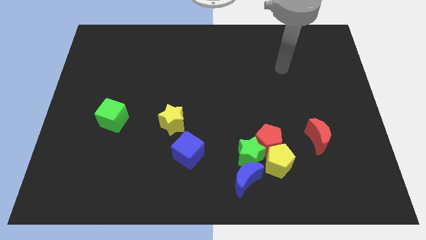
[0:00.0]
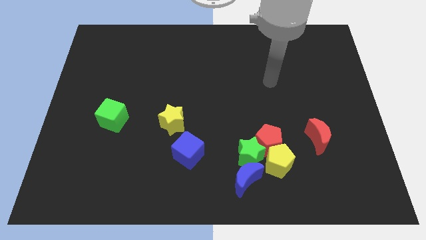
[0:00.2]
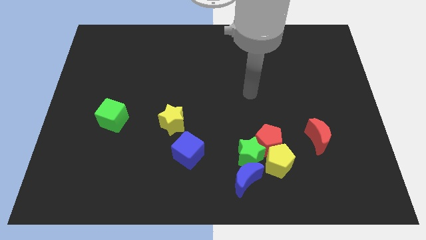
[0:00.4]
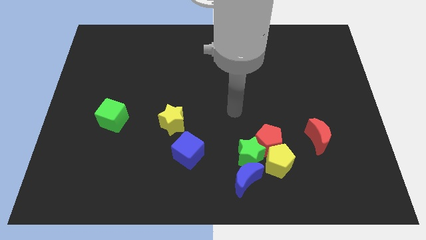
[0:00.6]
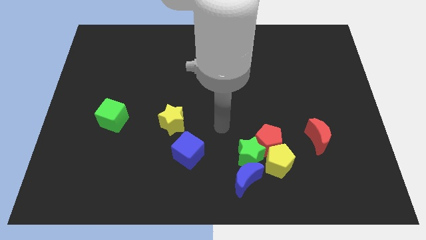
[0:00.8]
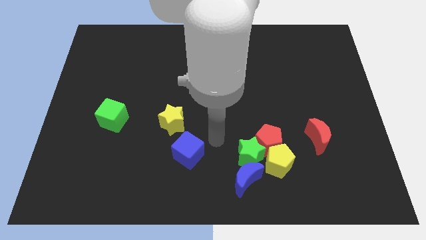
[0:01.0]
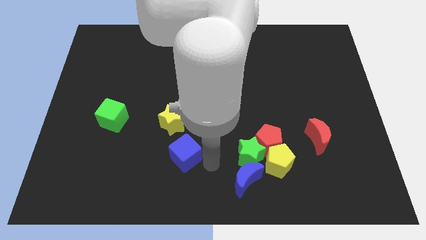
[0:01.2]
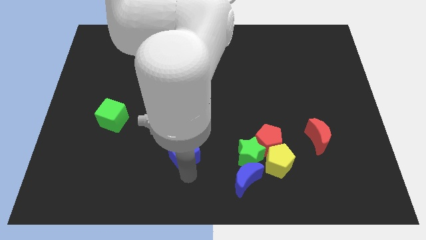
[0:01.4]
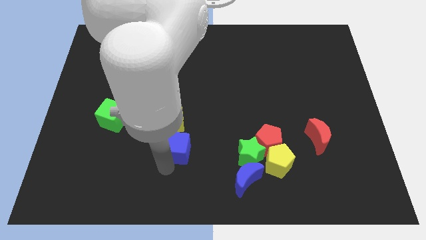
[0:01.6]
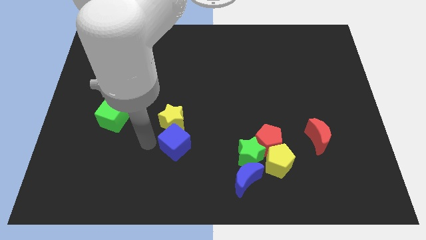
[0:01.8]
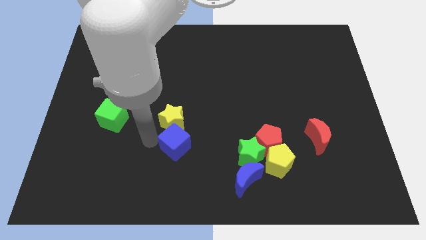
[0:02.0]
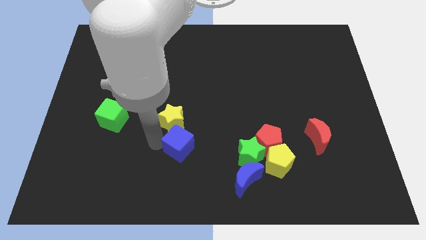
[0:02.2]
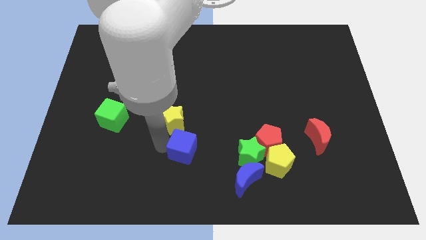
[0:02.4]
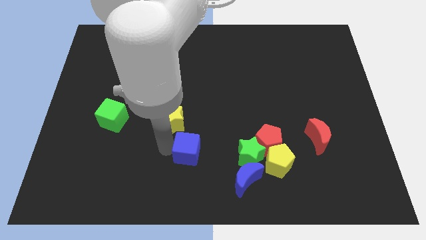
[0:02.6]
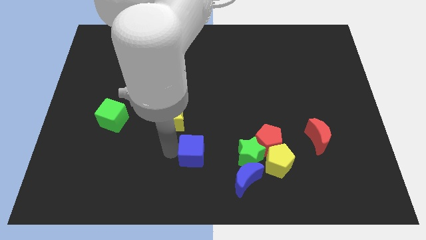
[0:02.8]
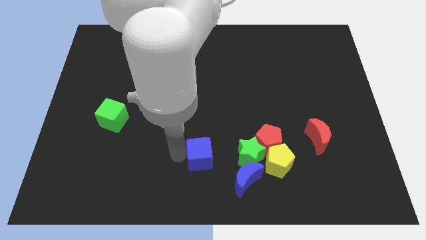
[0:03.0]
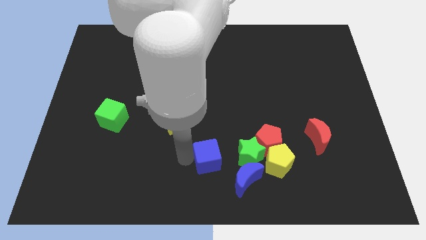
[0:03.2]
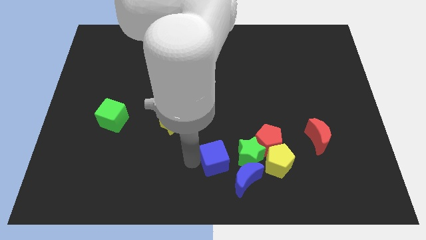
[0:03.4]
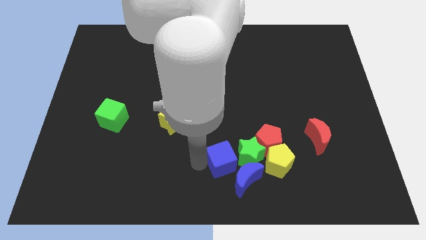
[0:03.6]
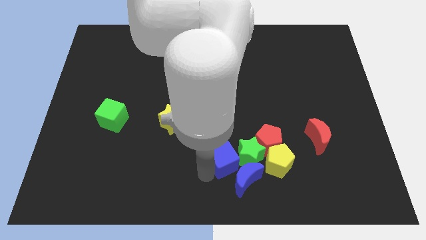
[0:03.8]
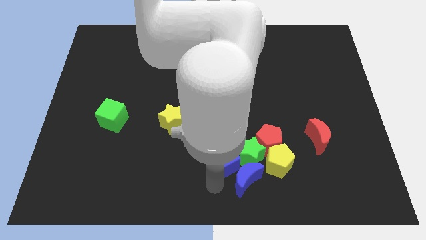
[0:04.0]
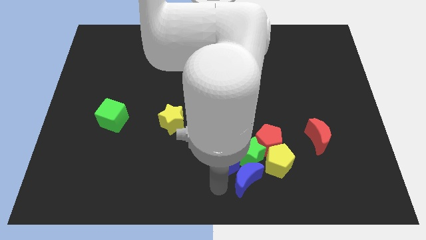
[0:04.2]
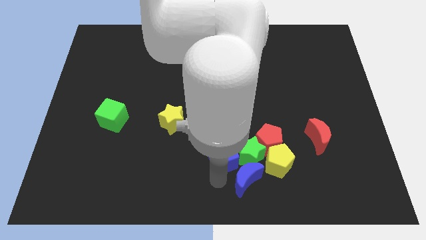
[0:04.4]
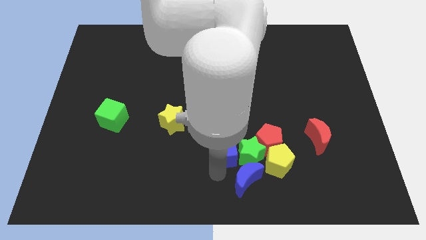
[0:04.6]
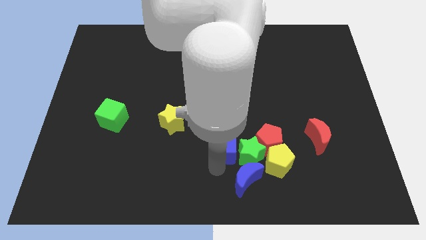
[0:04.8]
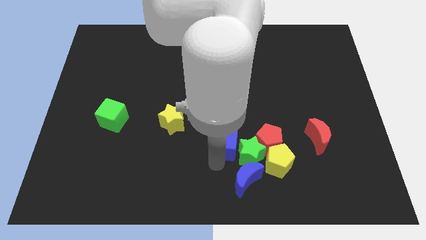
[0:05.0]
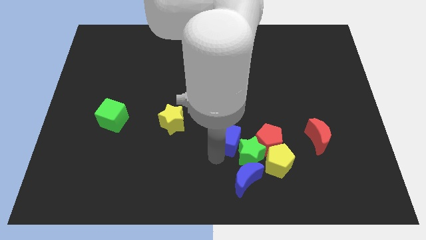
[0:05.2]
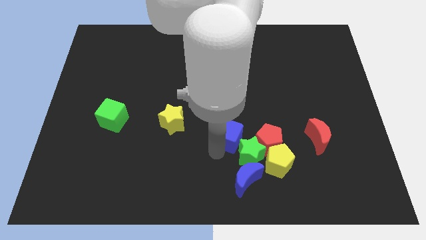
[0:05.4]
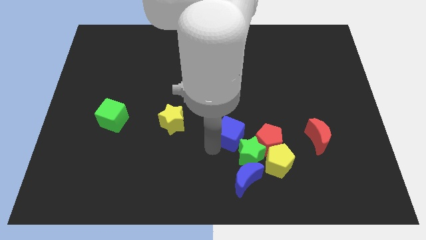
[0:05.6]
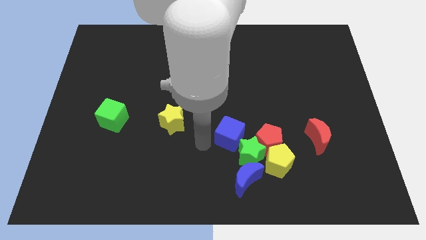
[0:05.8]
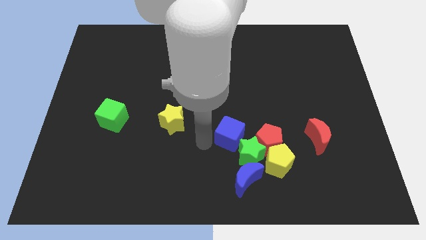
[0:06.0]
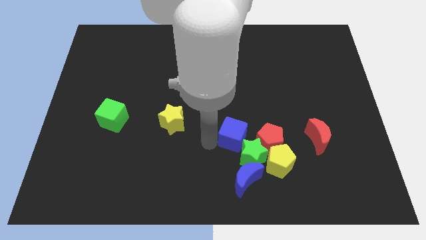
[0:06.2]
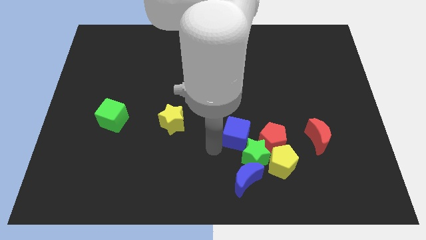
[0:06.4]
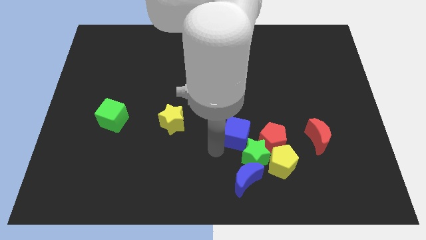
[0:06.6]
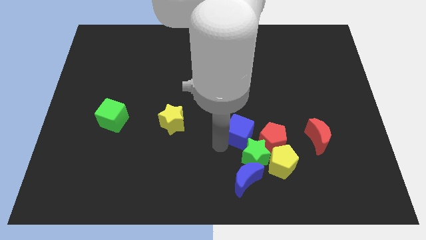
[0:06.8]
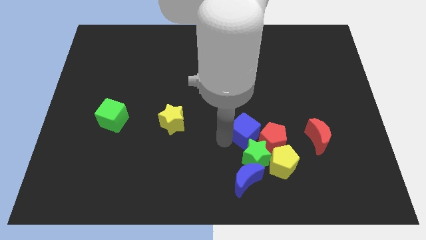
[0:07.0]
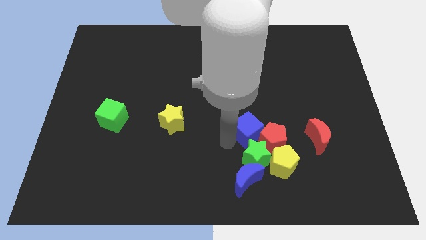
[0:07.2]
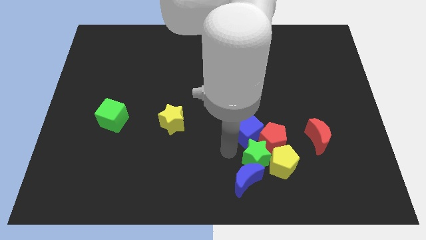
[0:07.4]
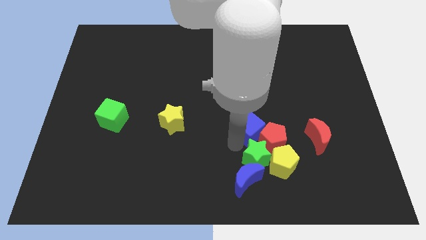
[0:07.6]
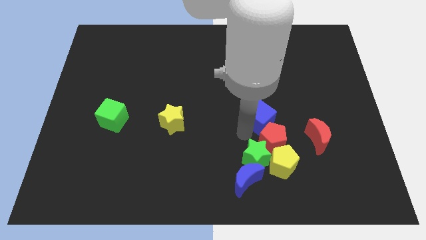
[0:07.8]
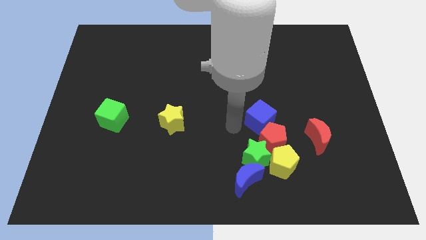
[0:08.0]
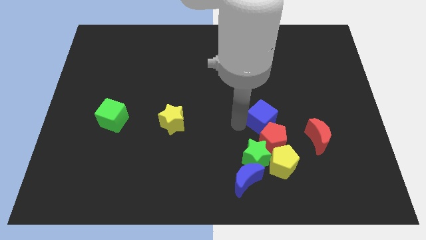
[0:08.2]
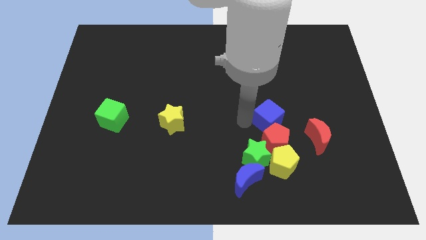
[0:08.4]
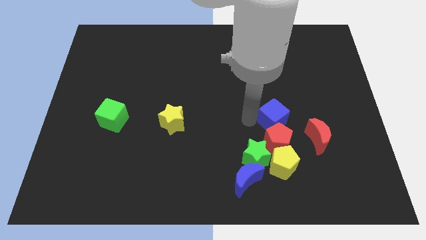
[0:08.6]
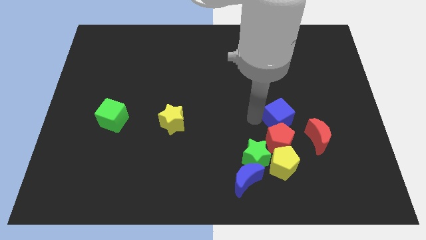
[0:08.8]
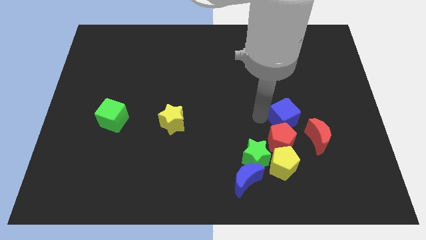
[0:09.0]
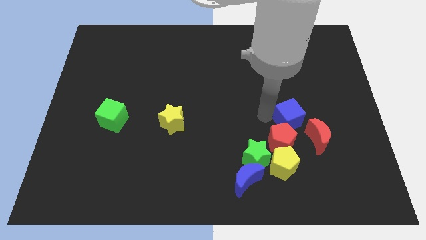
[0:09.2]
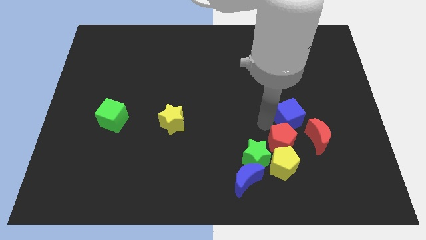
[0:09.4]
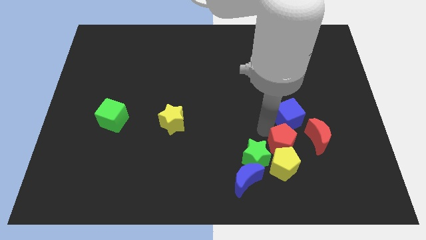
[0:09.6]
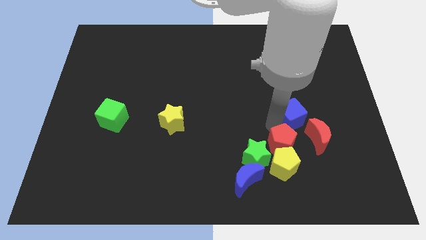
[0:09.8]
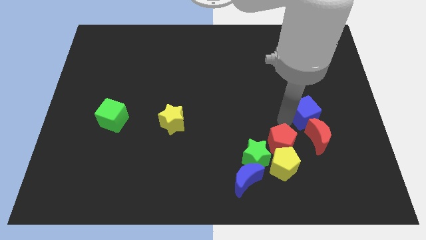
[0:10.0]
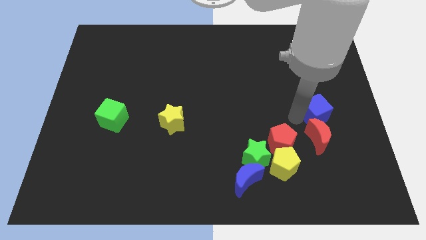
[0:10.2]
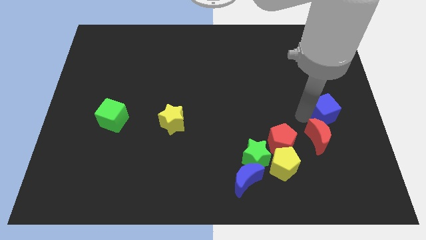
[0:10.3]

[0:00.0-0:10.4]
put the blue cube to the right side of the board

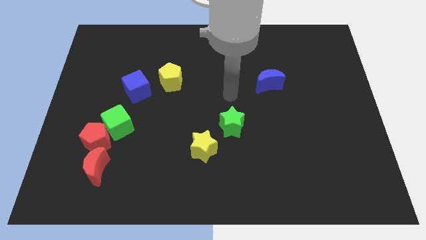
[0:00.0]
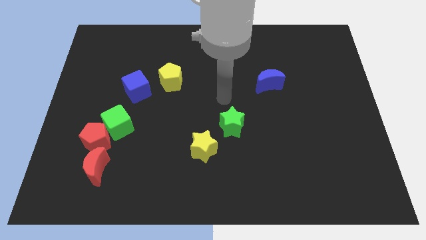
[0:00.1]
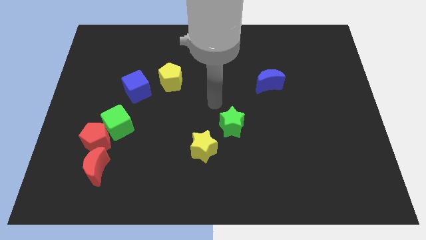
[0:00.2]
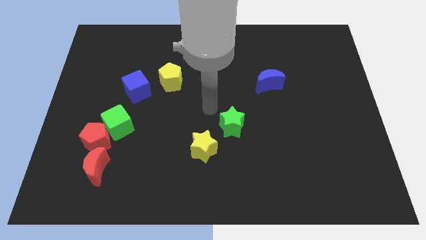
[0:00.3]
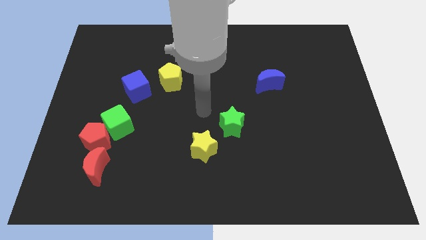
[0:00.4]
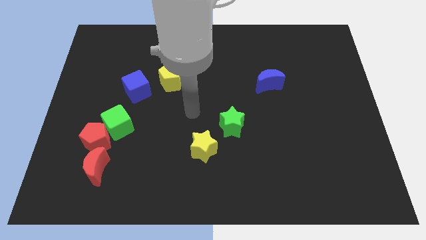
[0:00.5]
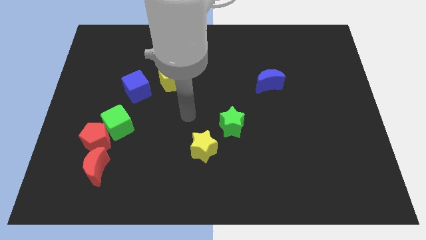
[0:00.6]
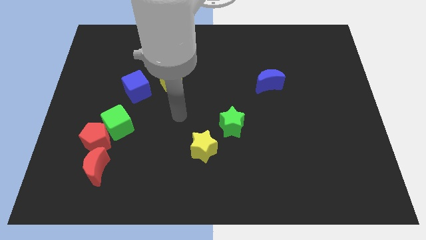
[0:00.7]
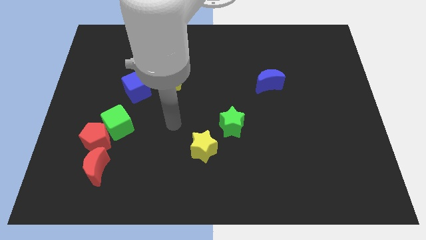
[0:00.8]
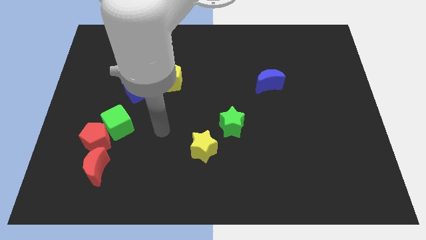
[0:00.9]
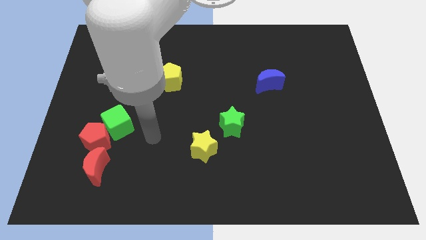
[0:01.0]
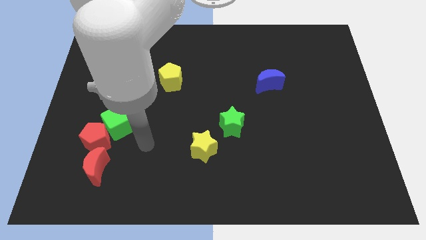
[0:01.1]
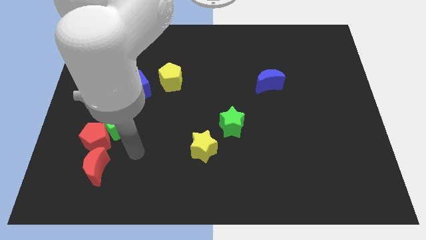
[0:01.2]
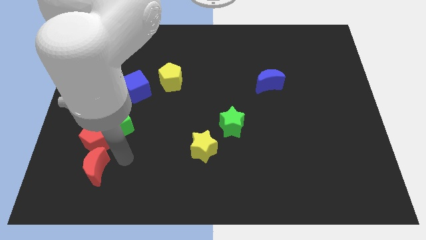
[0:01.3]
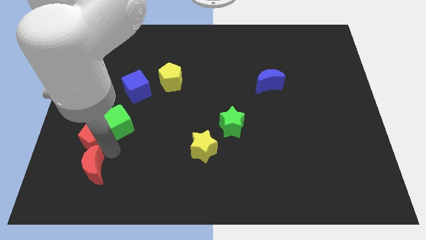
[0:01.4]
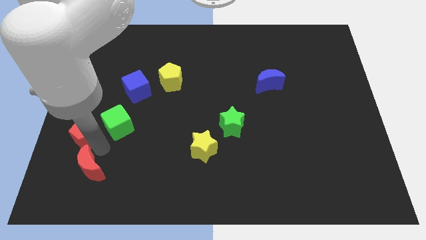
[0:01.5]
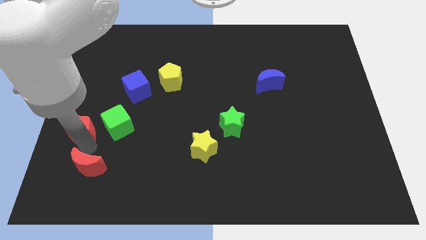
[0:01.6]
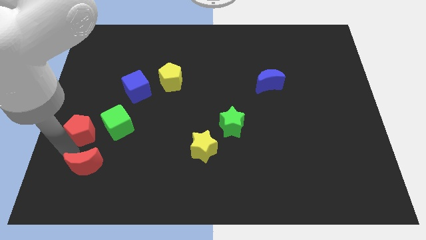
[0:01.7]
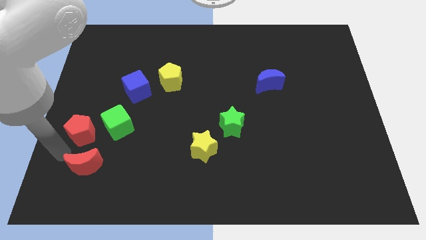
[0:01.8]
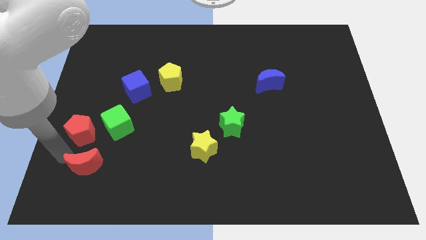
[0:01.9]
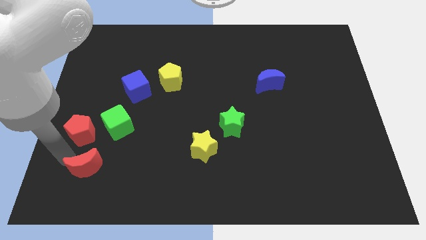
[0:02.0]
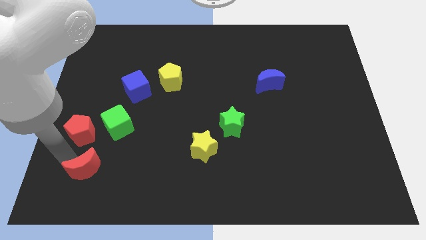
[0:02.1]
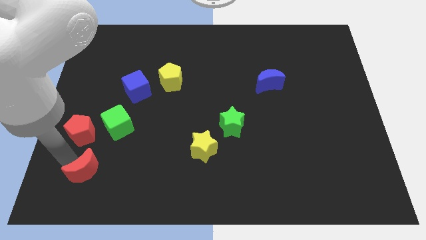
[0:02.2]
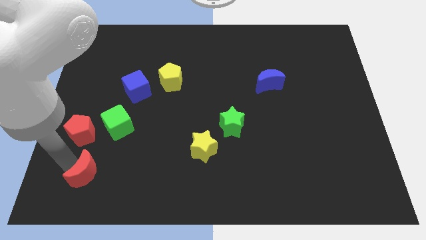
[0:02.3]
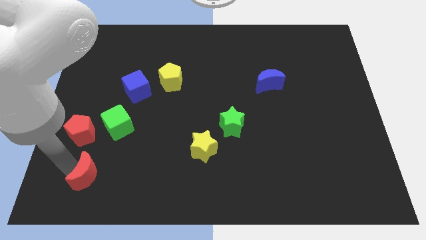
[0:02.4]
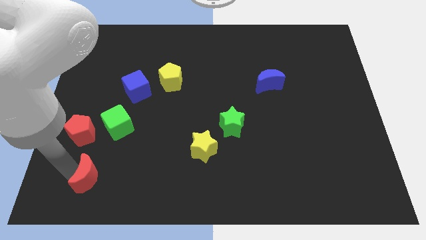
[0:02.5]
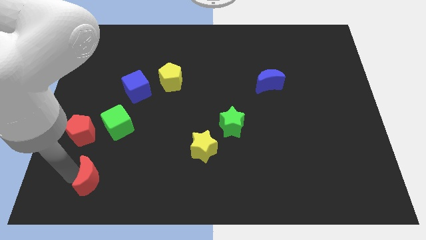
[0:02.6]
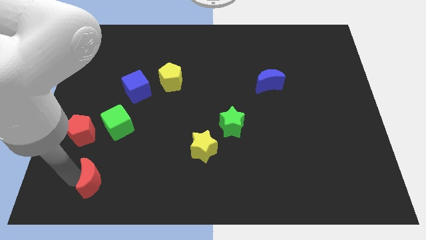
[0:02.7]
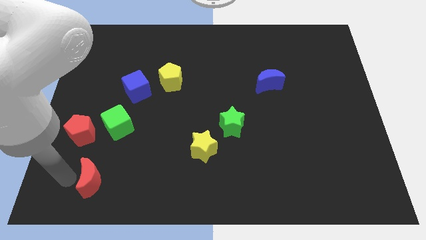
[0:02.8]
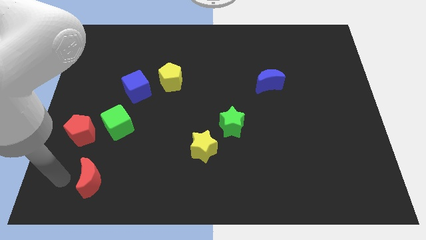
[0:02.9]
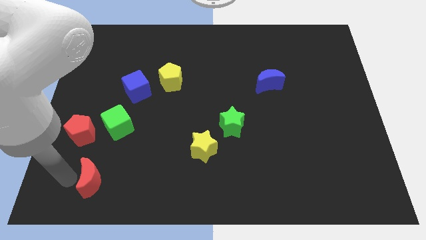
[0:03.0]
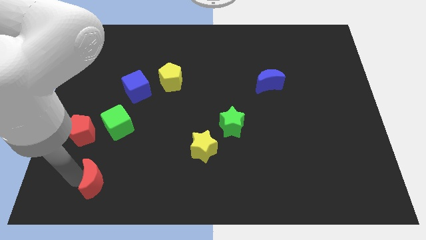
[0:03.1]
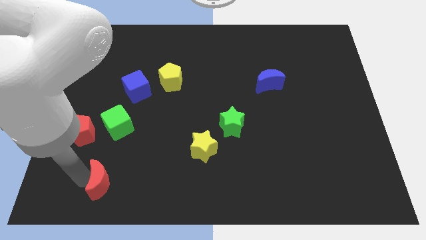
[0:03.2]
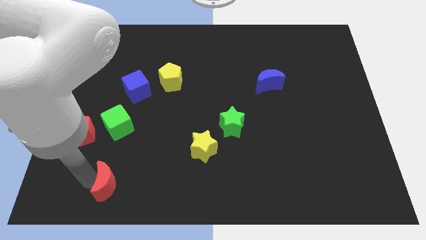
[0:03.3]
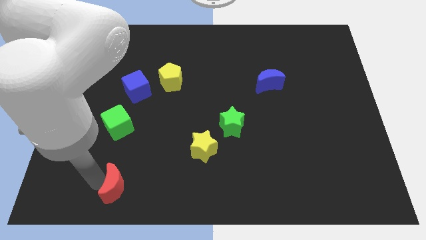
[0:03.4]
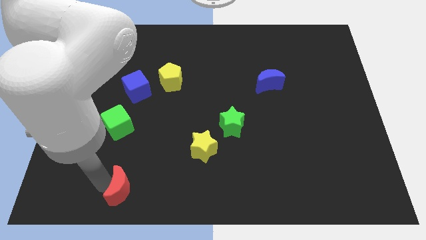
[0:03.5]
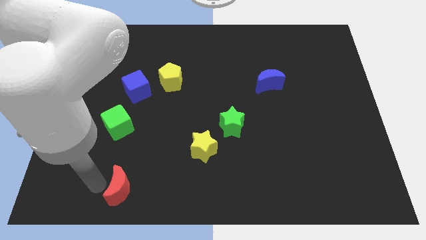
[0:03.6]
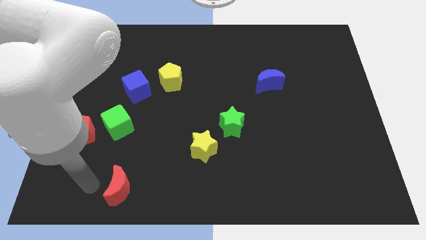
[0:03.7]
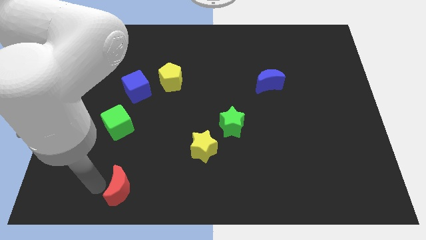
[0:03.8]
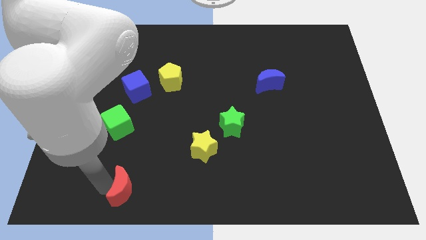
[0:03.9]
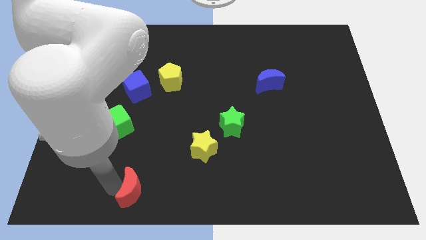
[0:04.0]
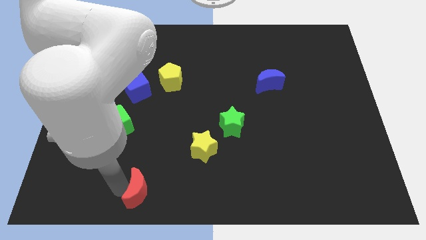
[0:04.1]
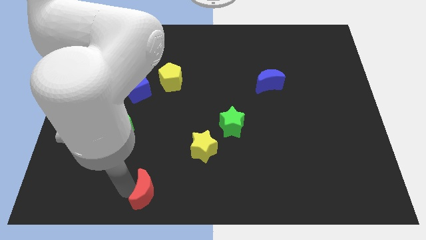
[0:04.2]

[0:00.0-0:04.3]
move the red moon to the bottom side
